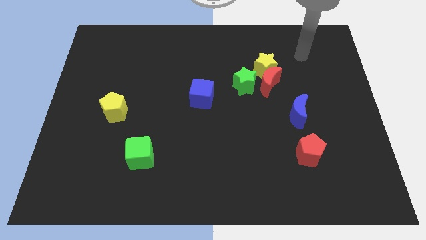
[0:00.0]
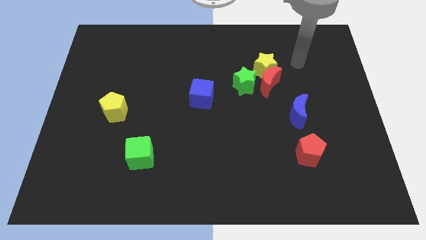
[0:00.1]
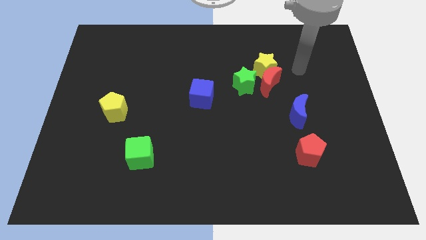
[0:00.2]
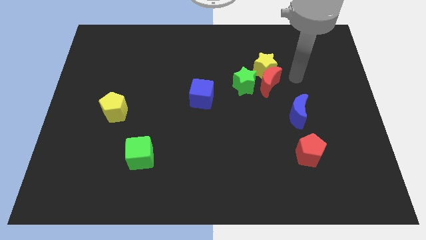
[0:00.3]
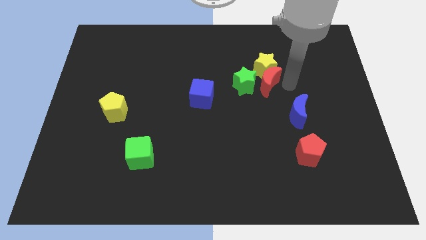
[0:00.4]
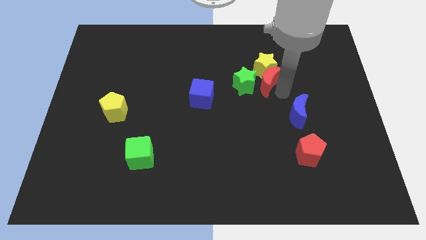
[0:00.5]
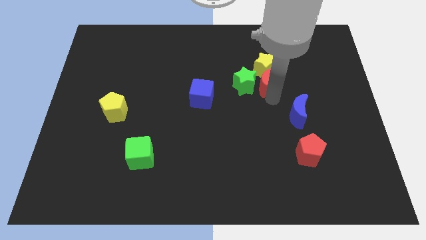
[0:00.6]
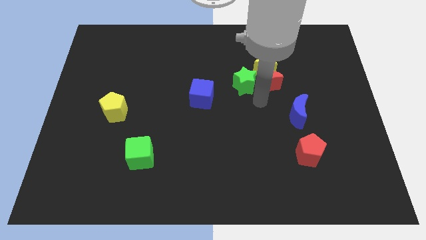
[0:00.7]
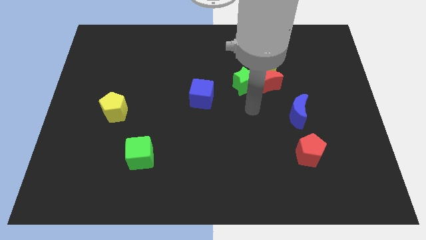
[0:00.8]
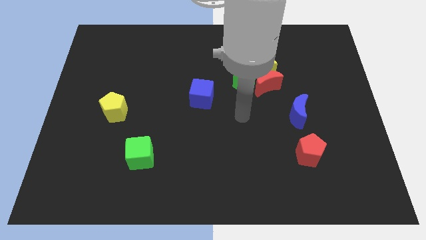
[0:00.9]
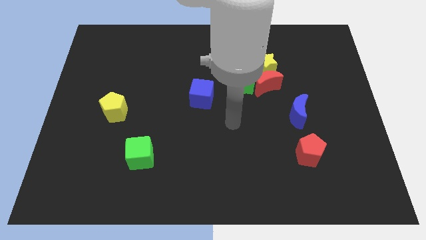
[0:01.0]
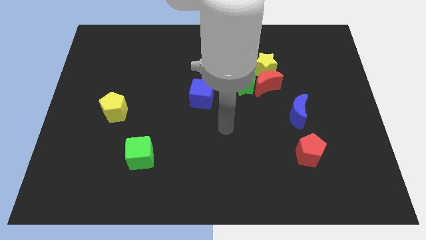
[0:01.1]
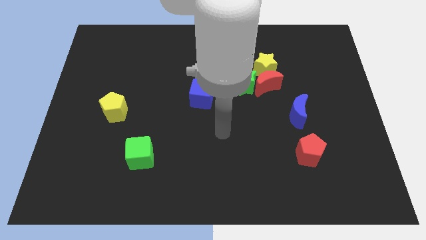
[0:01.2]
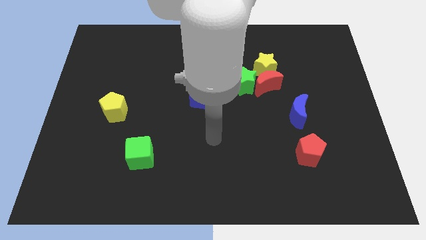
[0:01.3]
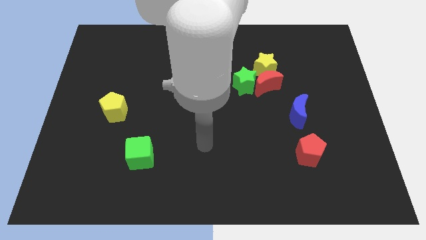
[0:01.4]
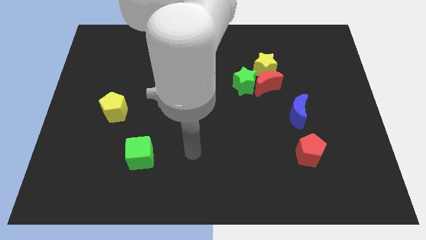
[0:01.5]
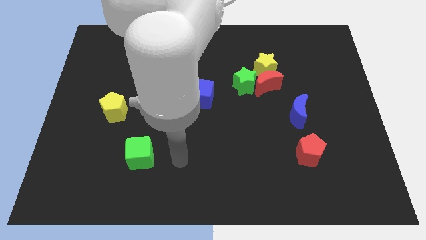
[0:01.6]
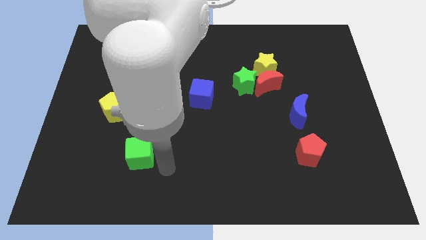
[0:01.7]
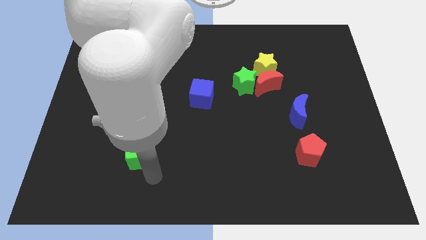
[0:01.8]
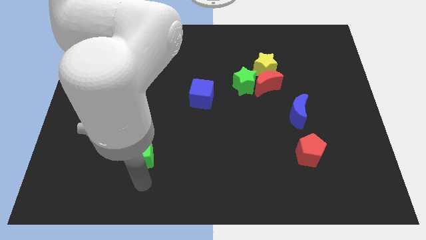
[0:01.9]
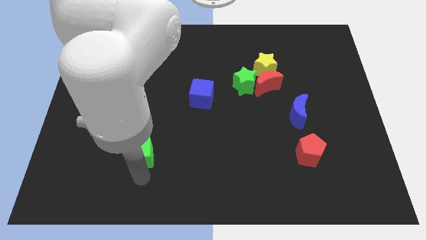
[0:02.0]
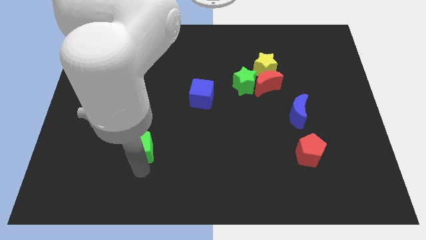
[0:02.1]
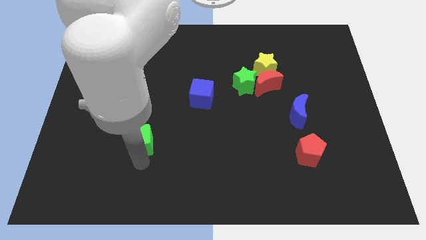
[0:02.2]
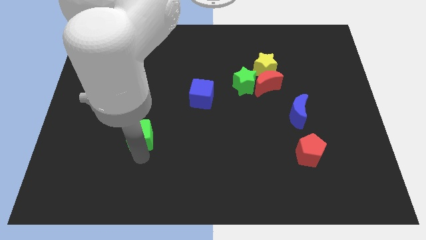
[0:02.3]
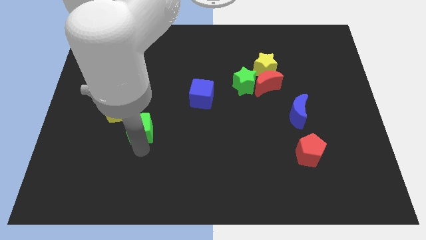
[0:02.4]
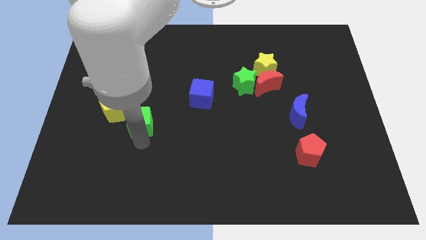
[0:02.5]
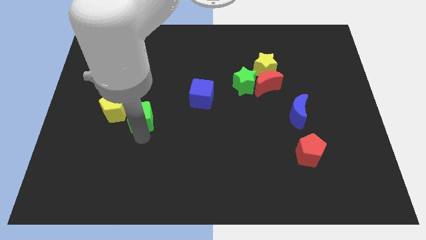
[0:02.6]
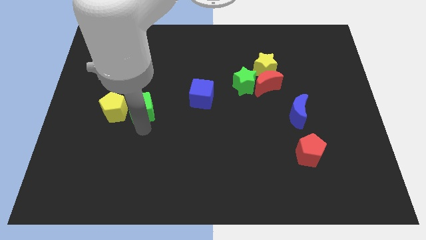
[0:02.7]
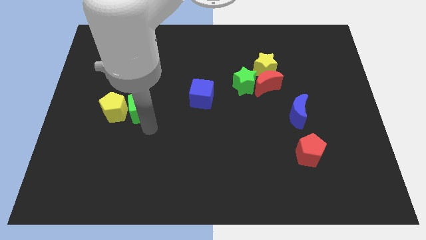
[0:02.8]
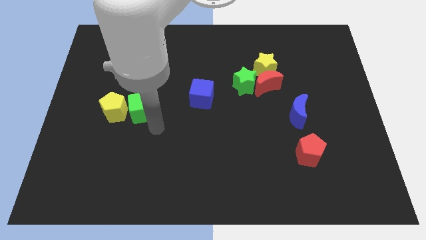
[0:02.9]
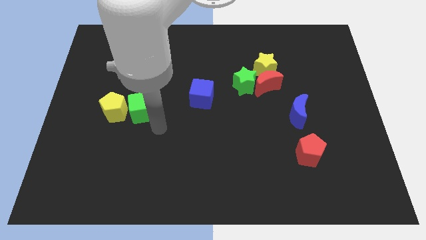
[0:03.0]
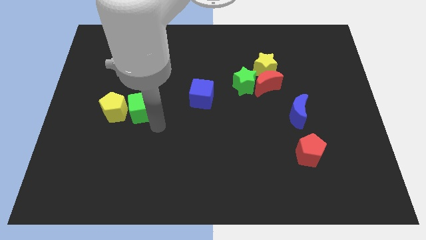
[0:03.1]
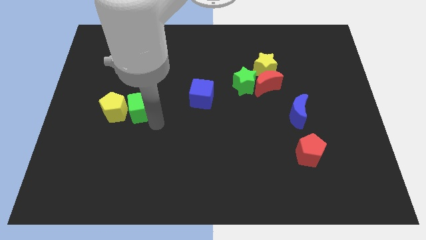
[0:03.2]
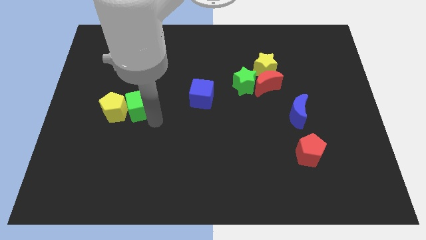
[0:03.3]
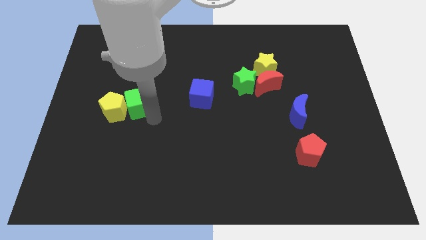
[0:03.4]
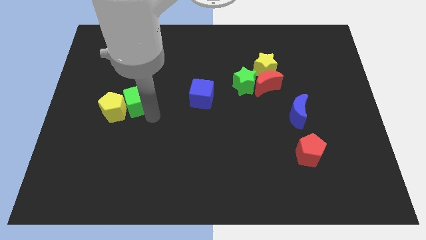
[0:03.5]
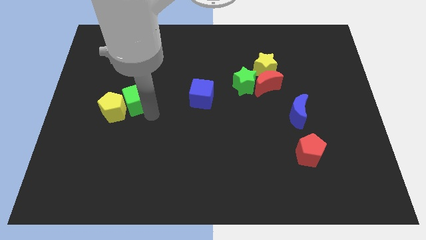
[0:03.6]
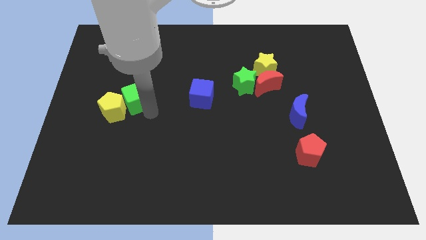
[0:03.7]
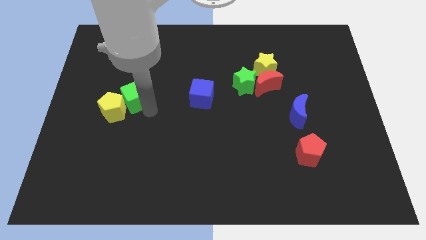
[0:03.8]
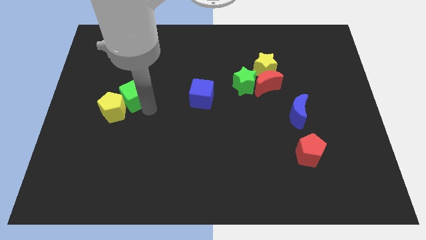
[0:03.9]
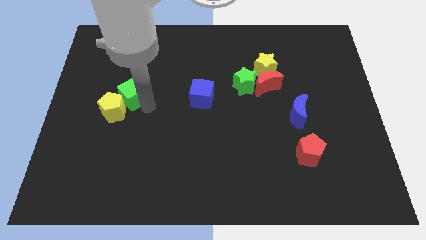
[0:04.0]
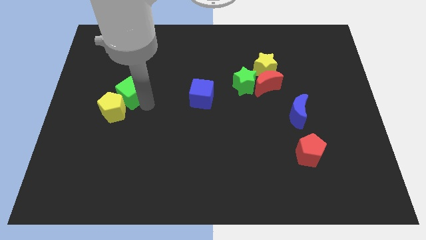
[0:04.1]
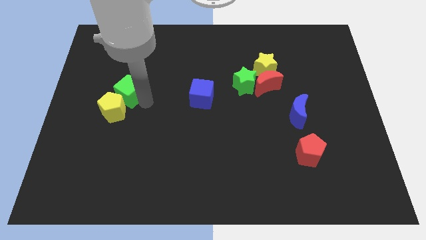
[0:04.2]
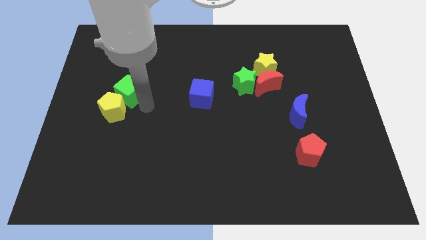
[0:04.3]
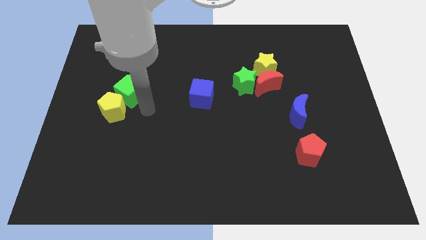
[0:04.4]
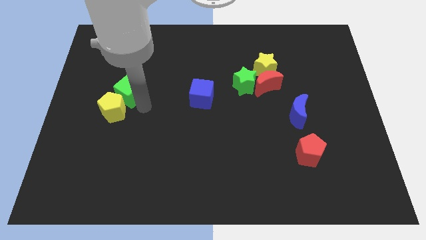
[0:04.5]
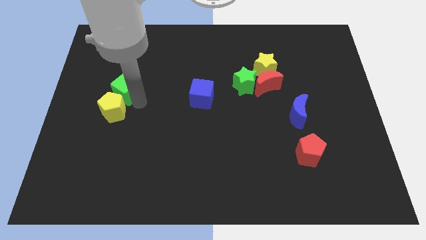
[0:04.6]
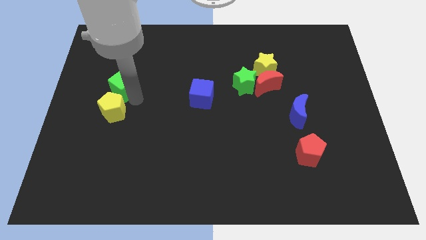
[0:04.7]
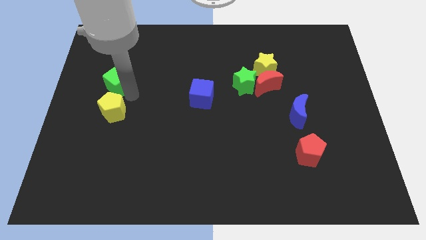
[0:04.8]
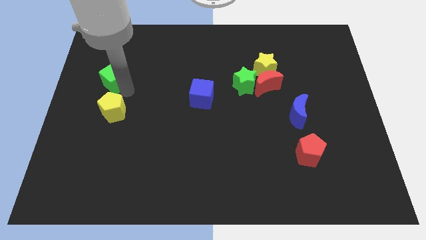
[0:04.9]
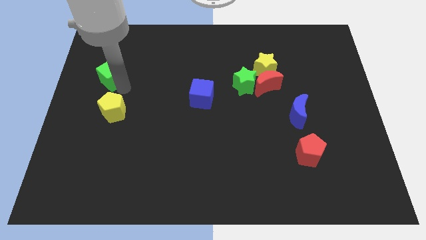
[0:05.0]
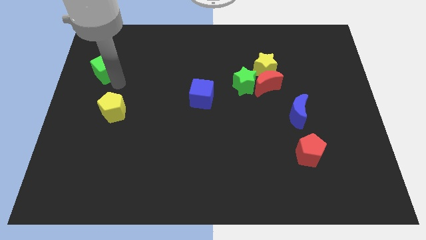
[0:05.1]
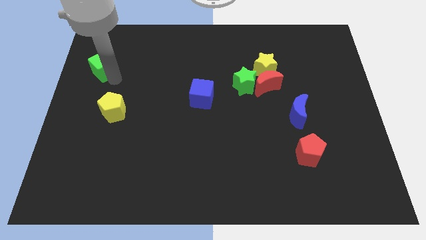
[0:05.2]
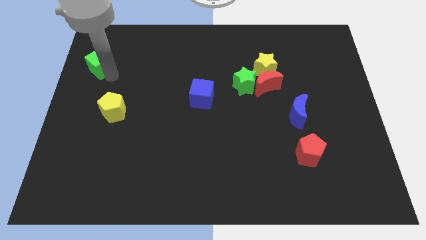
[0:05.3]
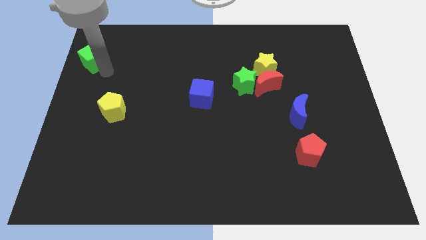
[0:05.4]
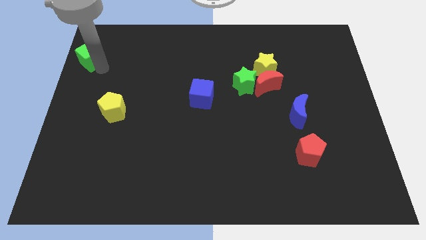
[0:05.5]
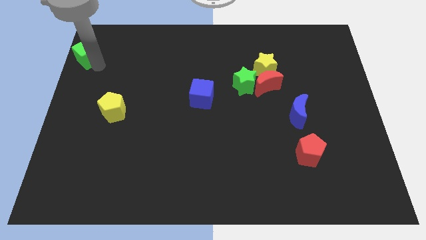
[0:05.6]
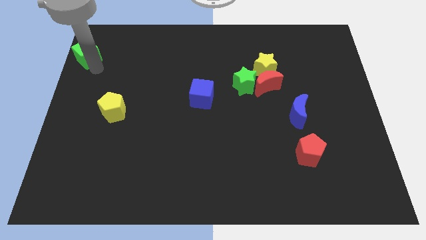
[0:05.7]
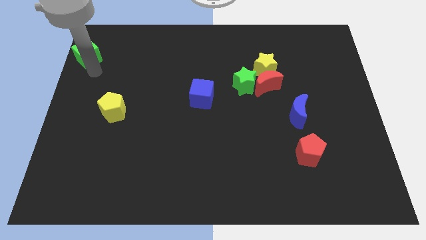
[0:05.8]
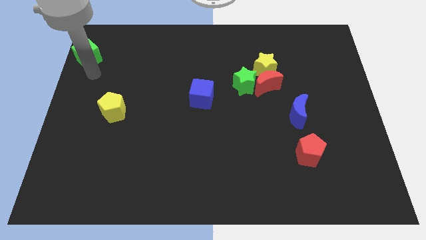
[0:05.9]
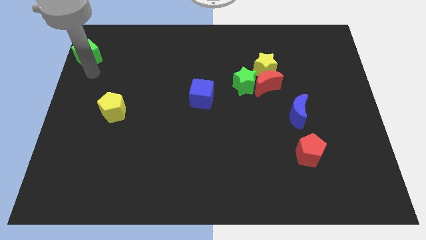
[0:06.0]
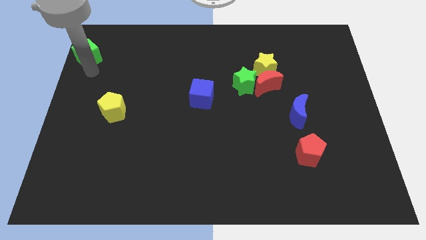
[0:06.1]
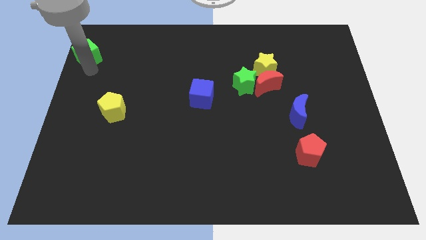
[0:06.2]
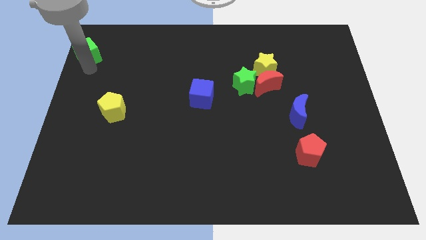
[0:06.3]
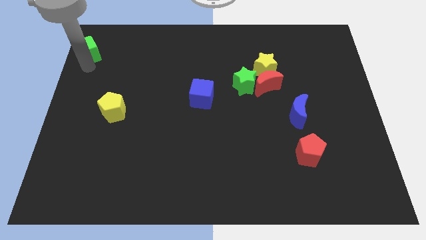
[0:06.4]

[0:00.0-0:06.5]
put the green cube to the top left corner
